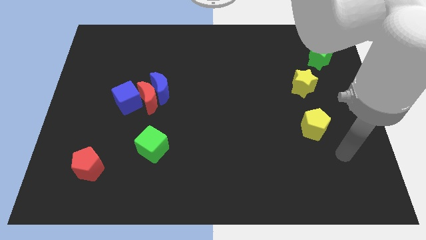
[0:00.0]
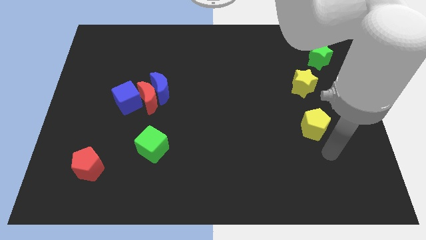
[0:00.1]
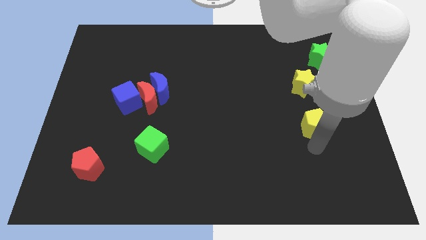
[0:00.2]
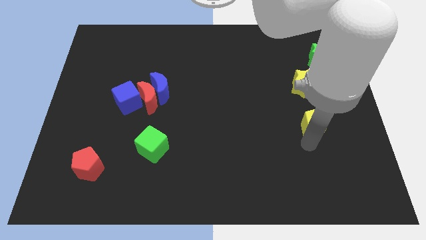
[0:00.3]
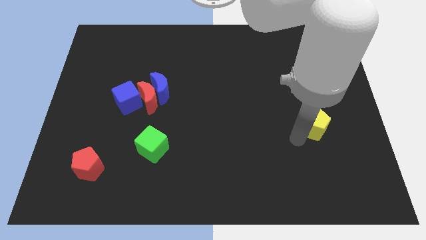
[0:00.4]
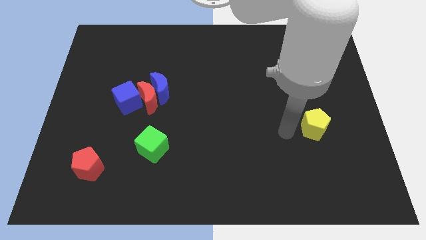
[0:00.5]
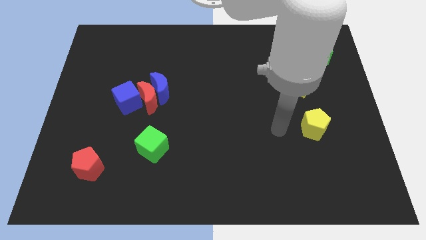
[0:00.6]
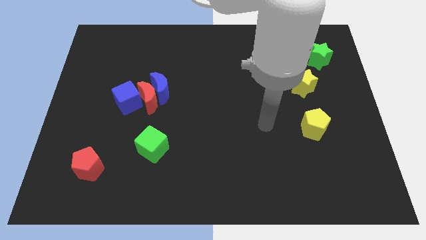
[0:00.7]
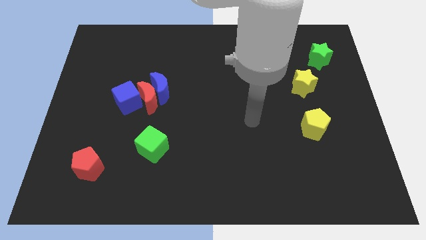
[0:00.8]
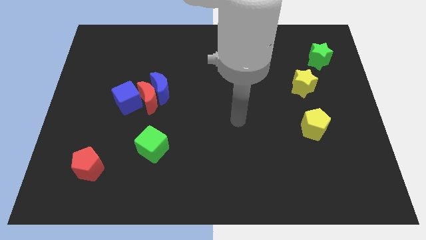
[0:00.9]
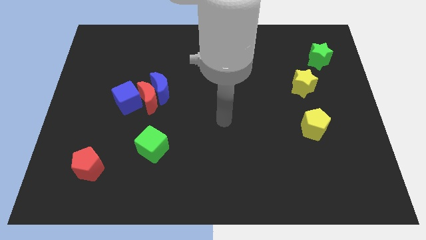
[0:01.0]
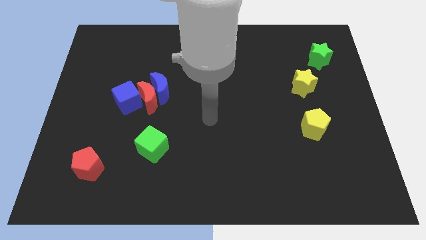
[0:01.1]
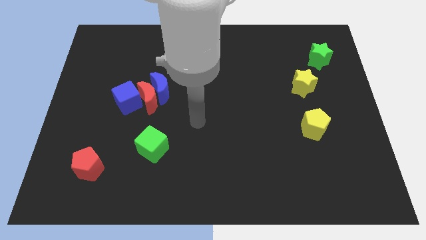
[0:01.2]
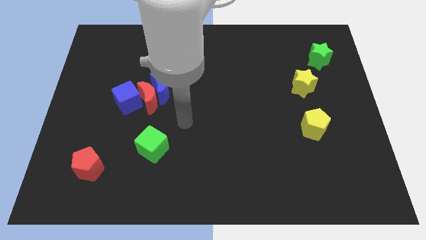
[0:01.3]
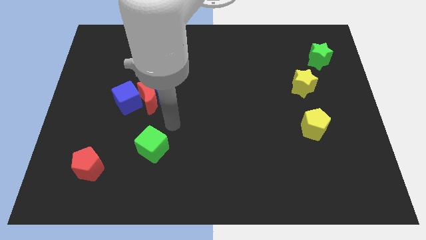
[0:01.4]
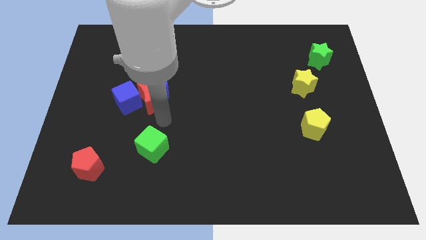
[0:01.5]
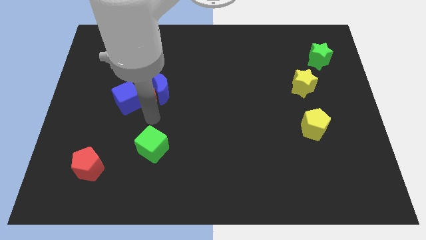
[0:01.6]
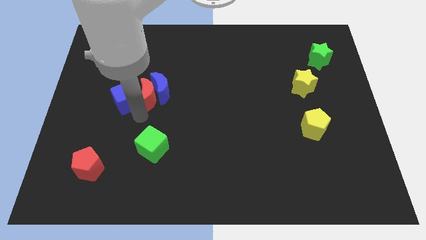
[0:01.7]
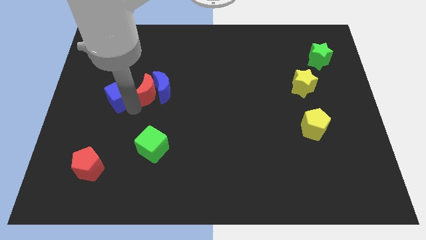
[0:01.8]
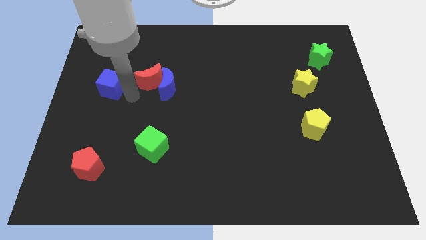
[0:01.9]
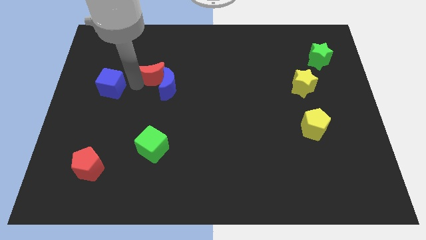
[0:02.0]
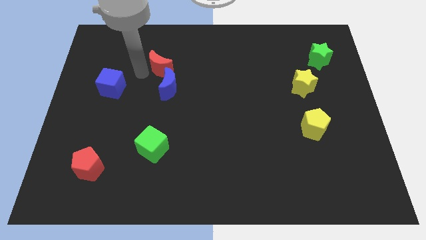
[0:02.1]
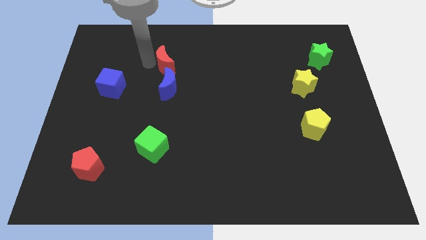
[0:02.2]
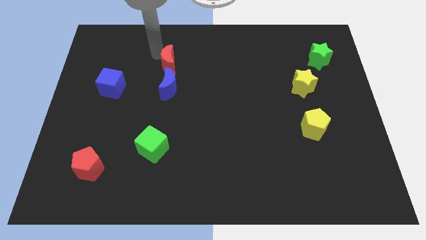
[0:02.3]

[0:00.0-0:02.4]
pull the red moon apart from the blue moon and blue cube

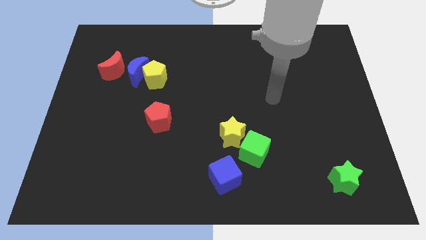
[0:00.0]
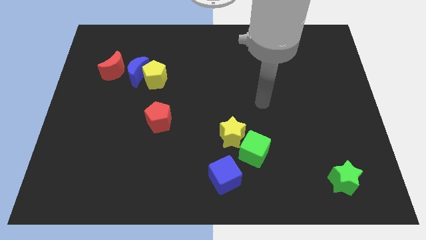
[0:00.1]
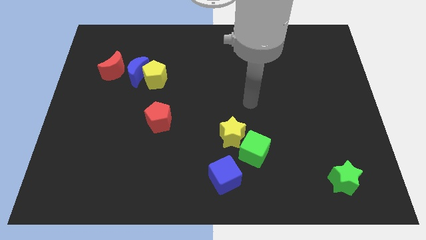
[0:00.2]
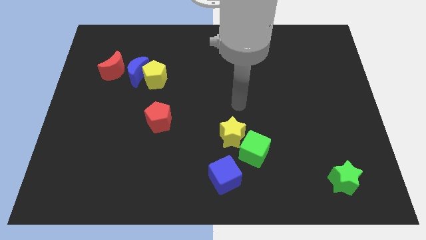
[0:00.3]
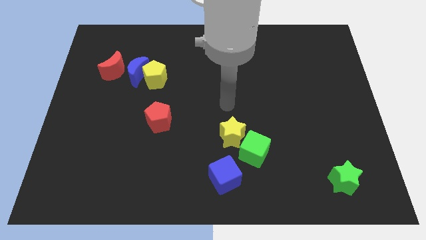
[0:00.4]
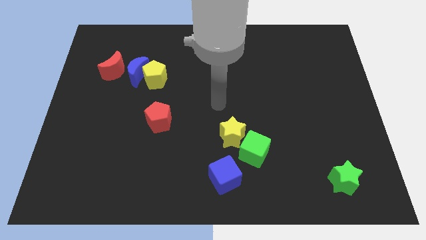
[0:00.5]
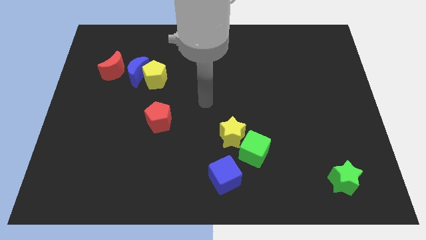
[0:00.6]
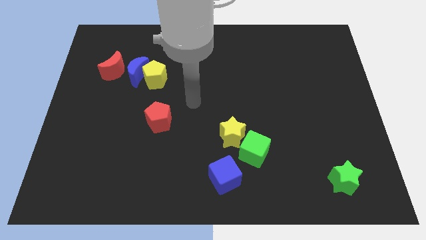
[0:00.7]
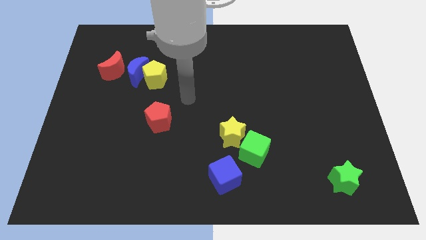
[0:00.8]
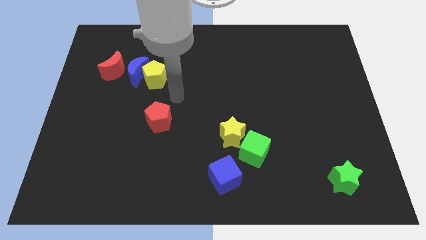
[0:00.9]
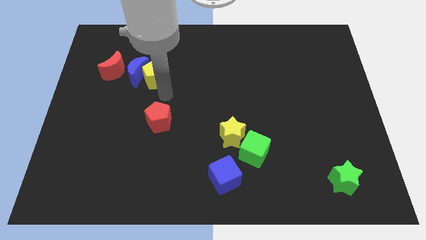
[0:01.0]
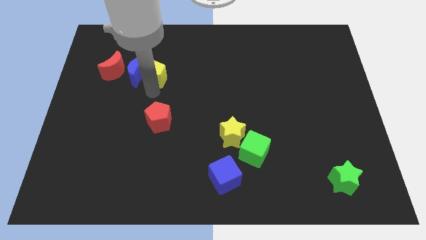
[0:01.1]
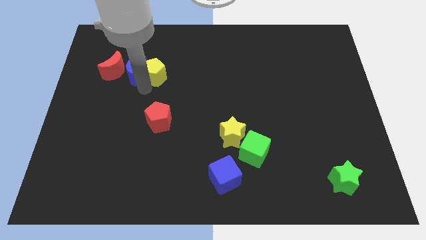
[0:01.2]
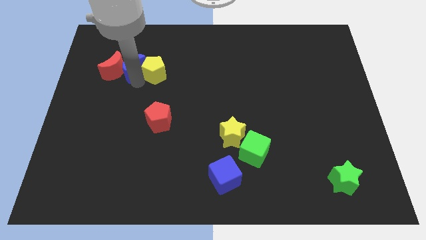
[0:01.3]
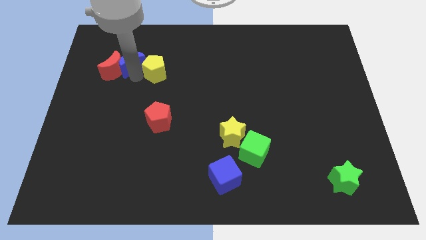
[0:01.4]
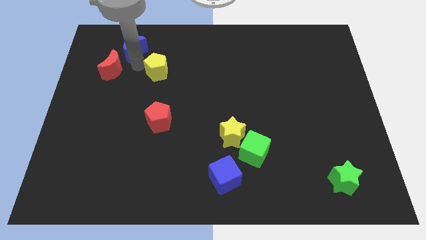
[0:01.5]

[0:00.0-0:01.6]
separate the yellow pentagon from the blue moon

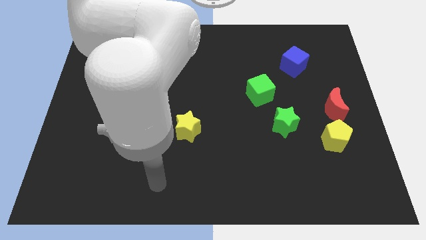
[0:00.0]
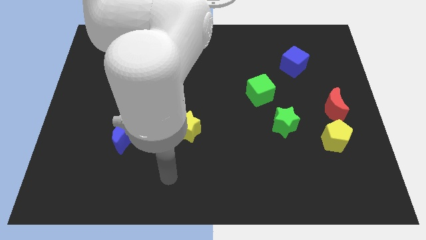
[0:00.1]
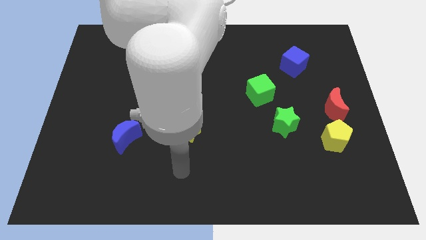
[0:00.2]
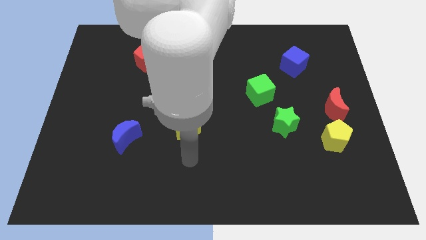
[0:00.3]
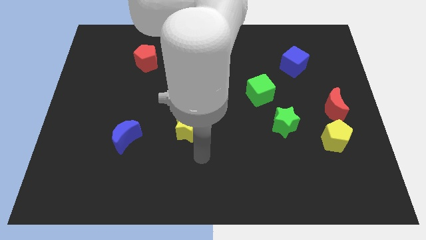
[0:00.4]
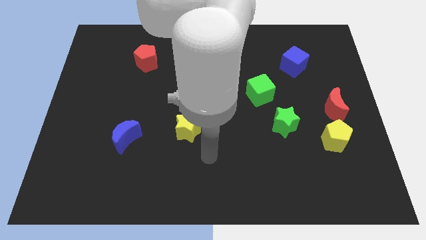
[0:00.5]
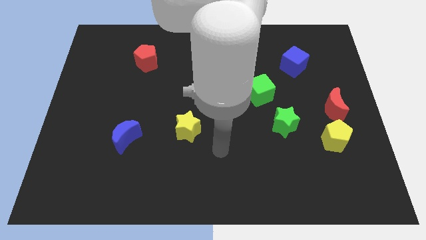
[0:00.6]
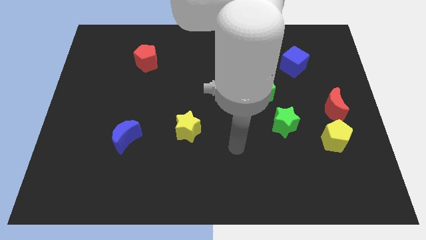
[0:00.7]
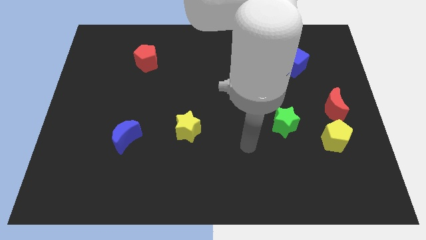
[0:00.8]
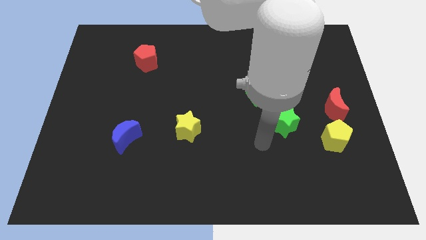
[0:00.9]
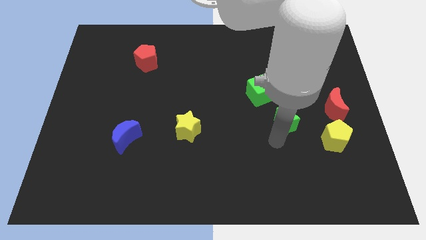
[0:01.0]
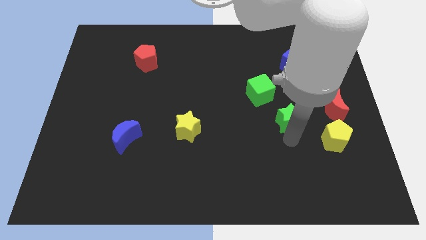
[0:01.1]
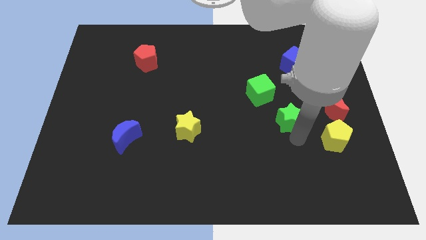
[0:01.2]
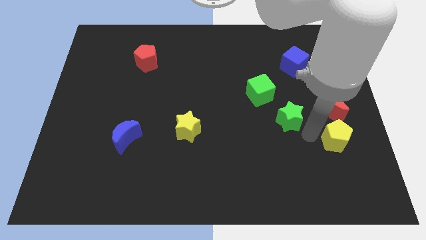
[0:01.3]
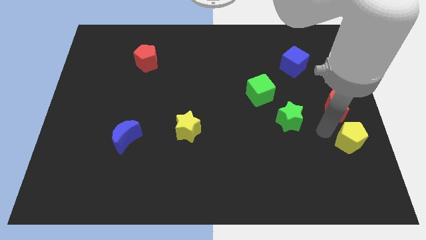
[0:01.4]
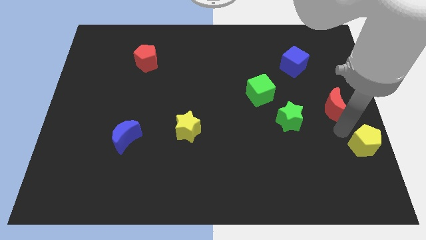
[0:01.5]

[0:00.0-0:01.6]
separate the red moon from the yellow pentagon

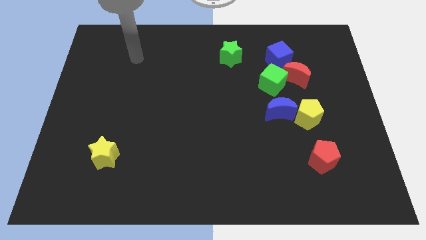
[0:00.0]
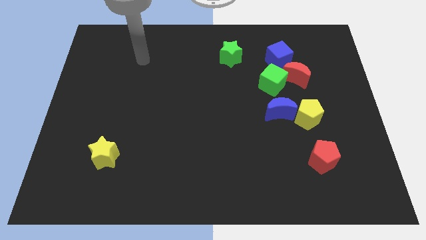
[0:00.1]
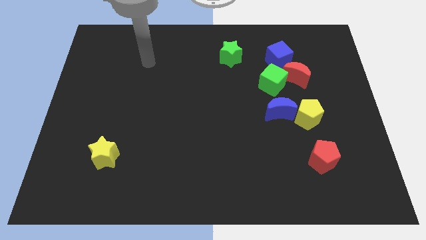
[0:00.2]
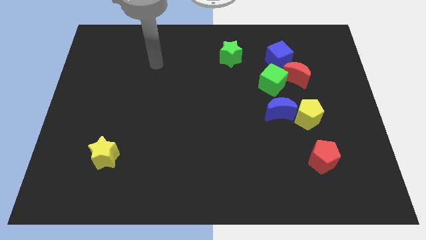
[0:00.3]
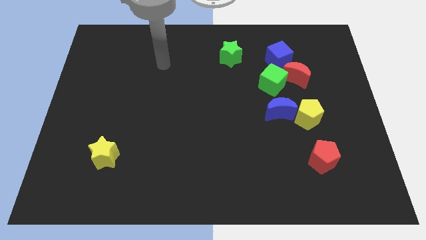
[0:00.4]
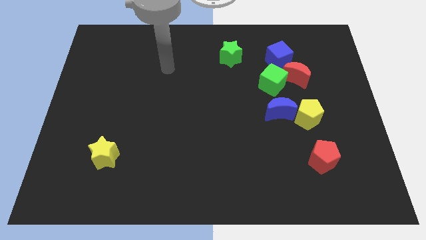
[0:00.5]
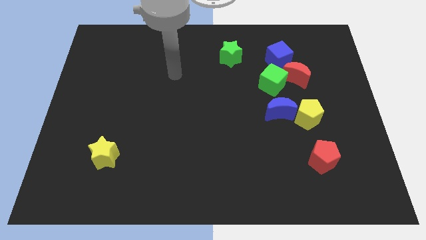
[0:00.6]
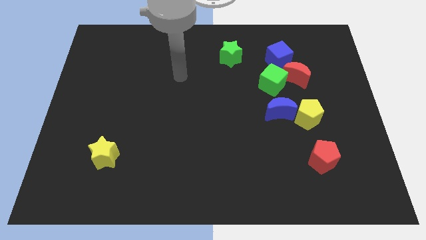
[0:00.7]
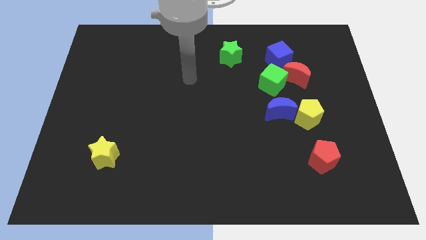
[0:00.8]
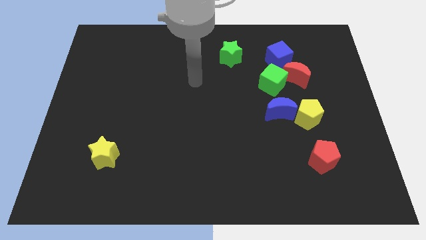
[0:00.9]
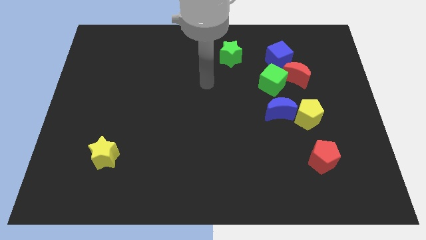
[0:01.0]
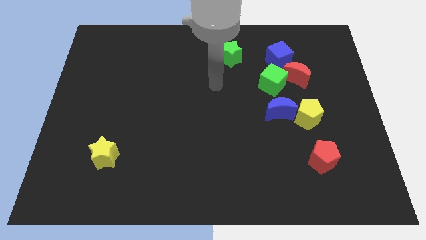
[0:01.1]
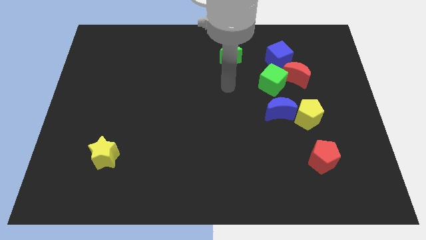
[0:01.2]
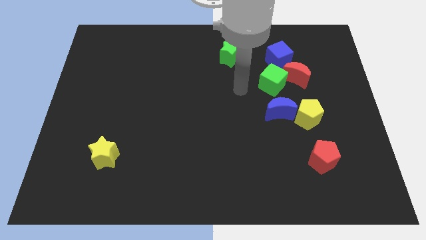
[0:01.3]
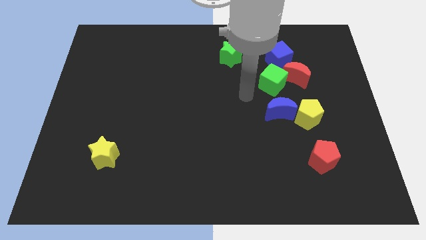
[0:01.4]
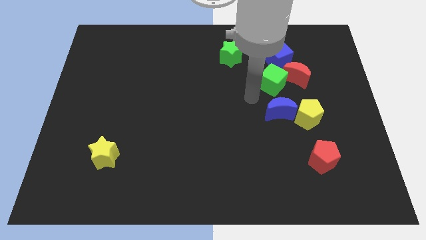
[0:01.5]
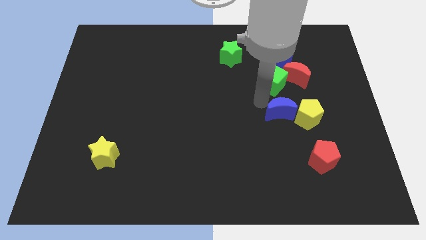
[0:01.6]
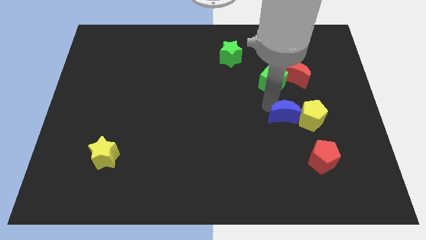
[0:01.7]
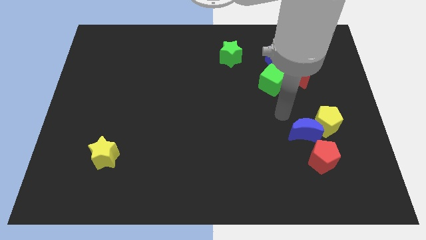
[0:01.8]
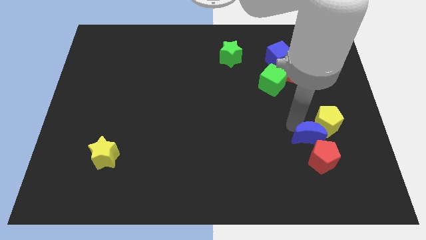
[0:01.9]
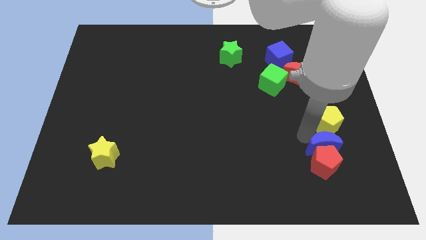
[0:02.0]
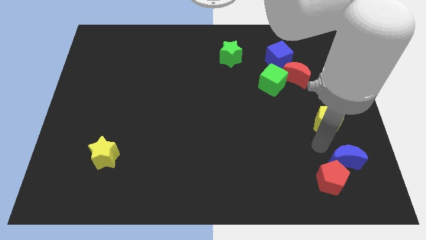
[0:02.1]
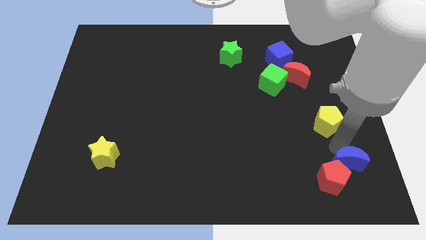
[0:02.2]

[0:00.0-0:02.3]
move the yellow pentagon away from the blue moon

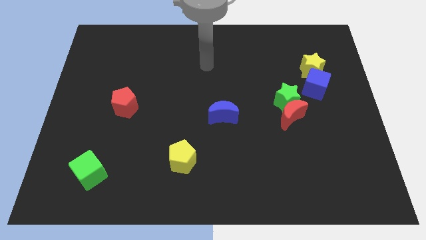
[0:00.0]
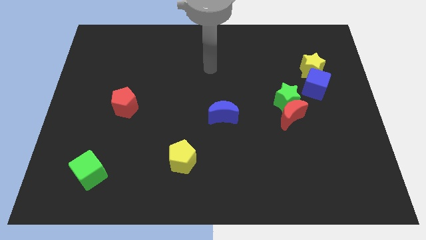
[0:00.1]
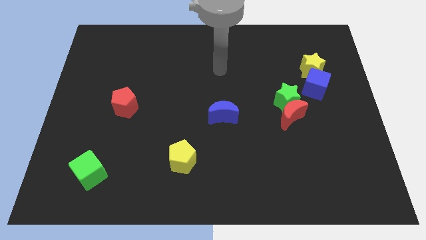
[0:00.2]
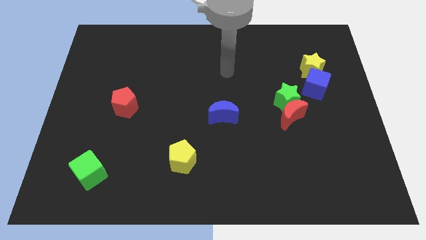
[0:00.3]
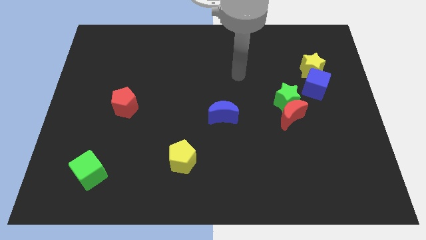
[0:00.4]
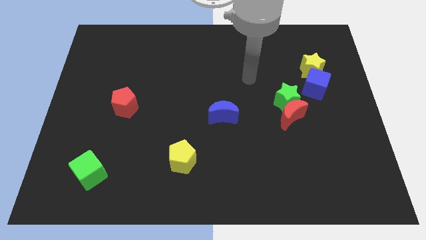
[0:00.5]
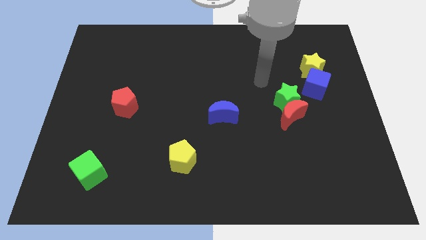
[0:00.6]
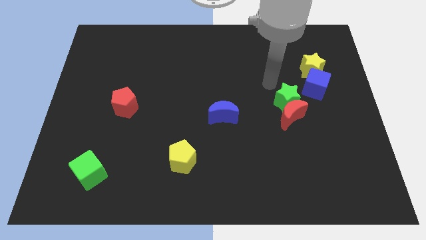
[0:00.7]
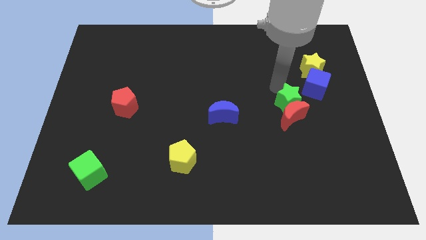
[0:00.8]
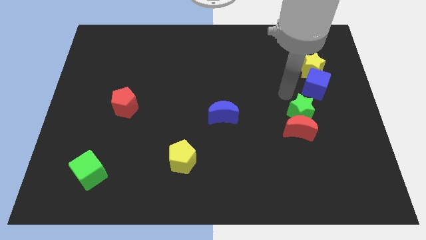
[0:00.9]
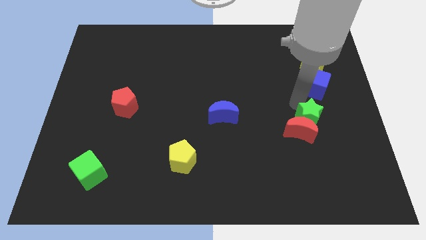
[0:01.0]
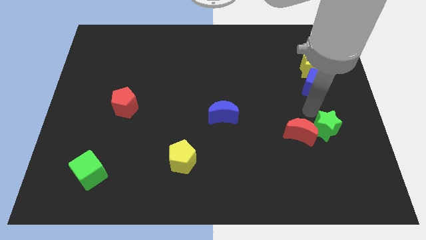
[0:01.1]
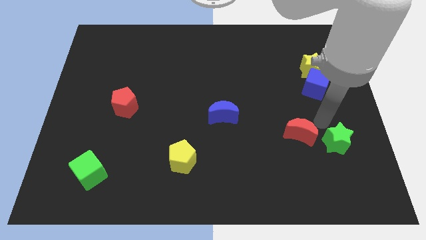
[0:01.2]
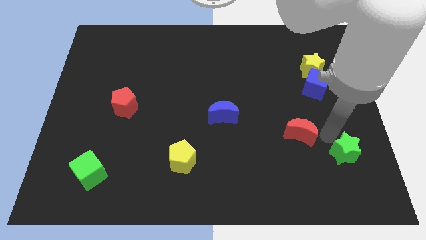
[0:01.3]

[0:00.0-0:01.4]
pull the red moon apart from the green star
